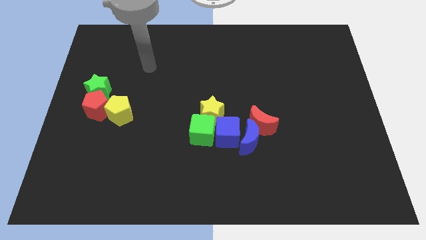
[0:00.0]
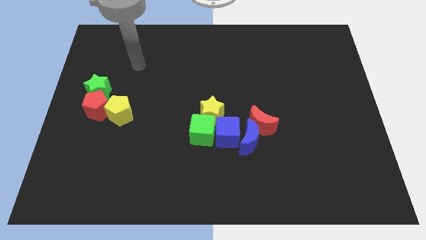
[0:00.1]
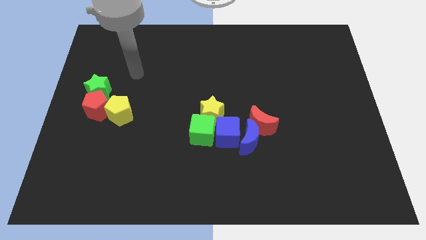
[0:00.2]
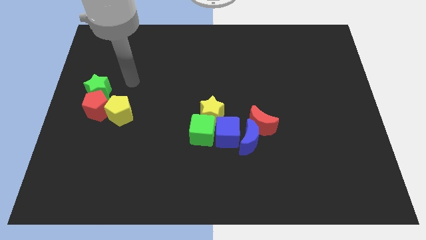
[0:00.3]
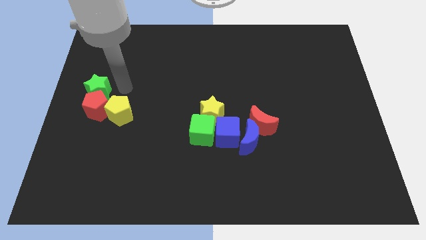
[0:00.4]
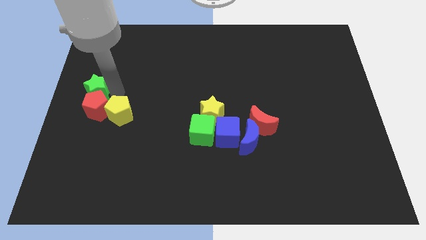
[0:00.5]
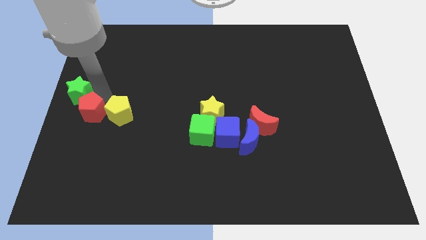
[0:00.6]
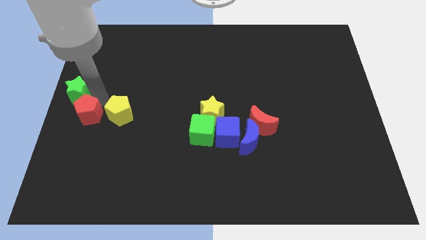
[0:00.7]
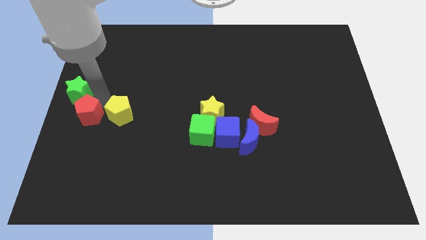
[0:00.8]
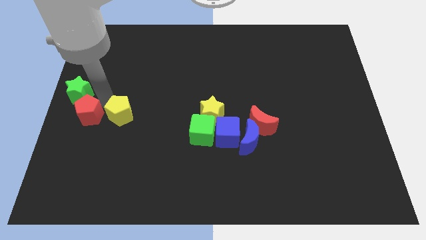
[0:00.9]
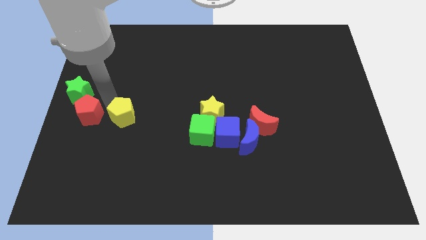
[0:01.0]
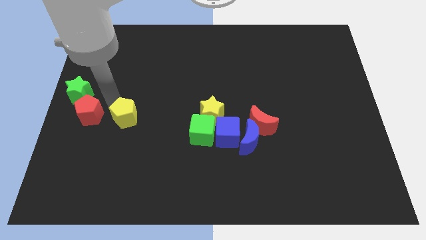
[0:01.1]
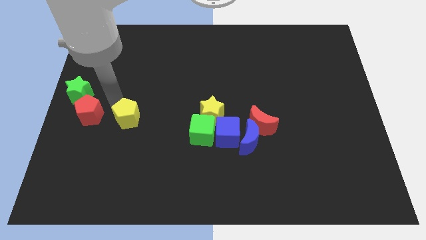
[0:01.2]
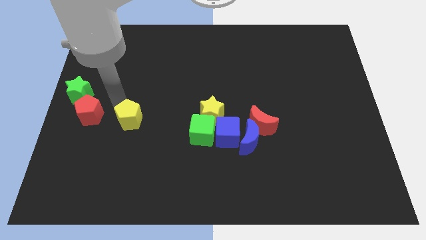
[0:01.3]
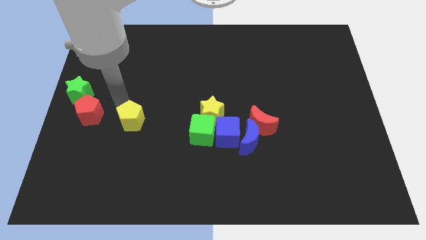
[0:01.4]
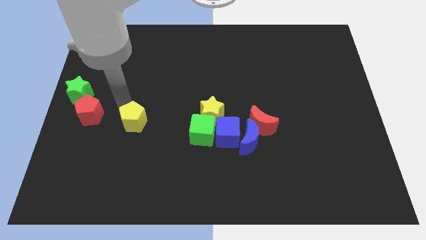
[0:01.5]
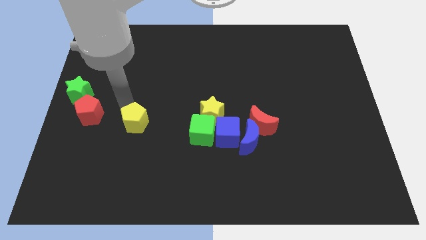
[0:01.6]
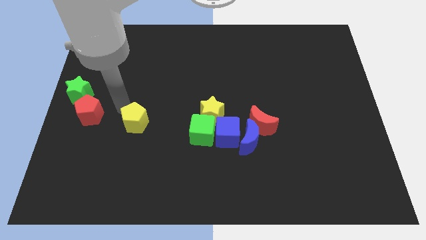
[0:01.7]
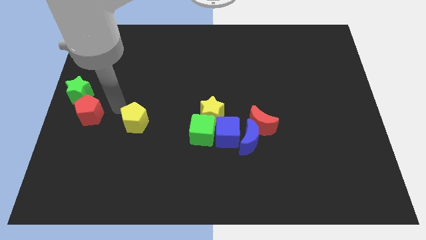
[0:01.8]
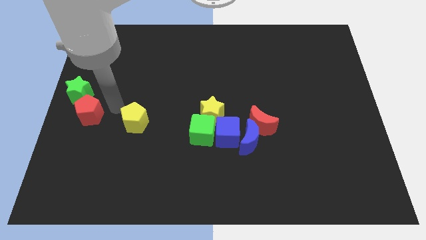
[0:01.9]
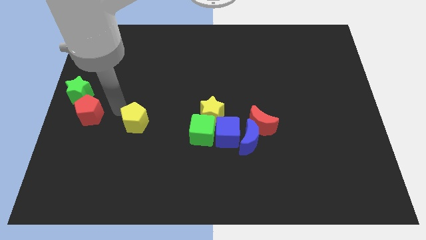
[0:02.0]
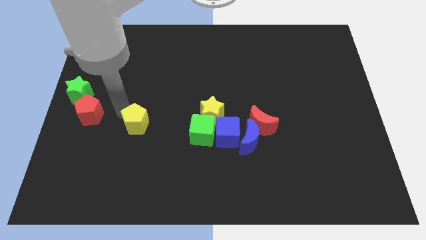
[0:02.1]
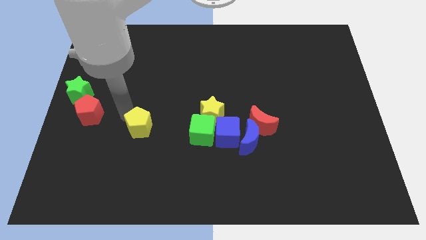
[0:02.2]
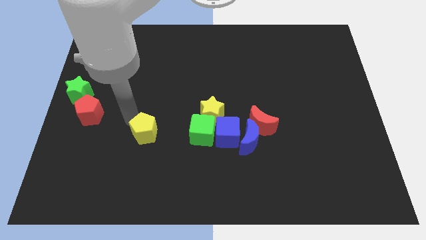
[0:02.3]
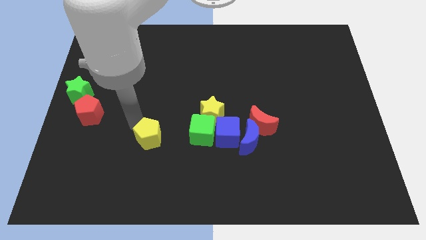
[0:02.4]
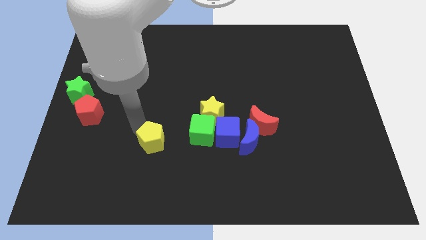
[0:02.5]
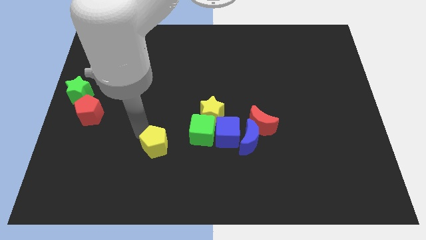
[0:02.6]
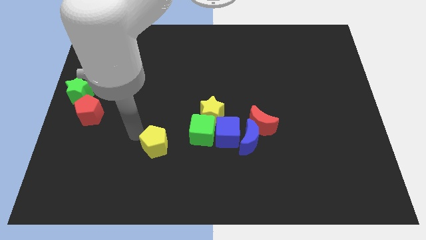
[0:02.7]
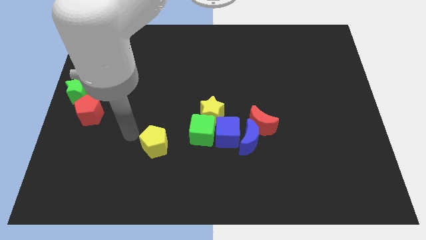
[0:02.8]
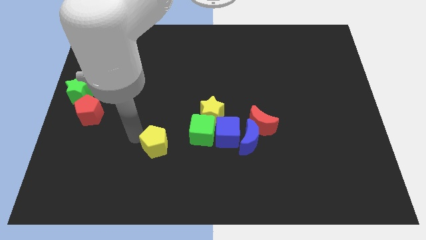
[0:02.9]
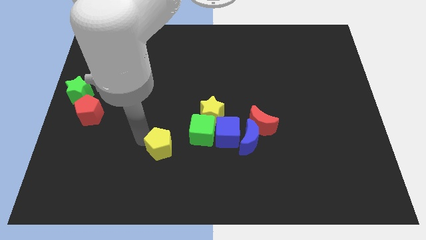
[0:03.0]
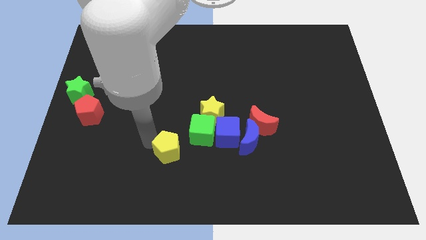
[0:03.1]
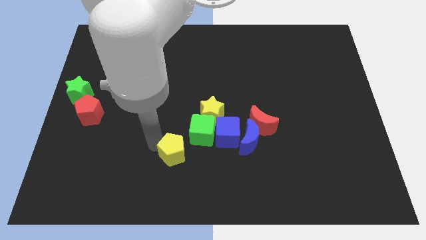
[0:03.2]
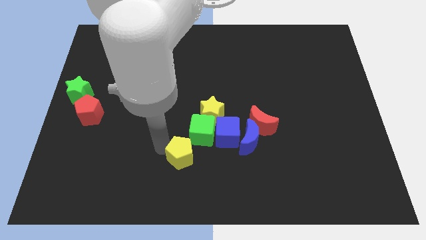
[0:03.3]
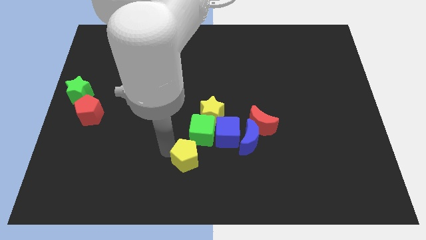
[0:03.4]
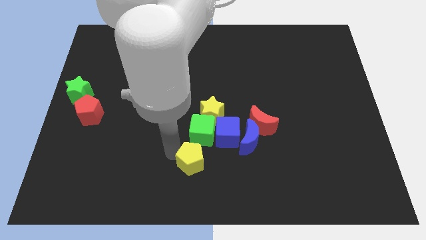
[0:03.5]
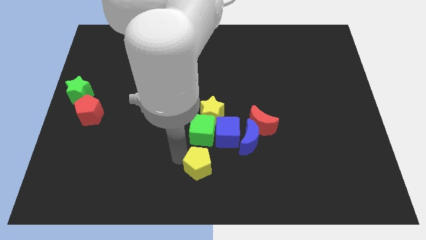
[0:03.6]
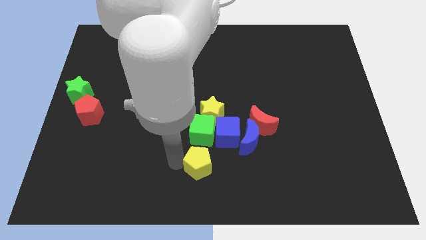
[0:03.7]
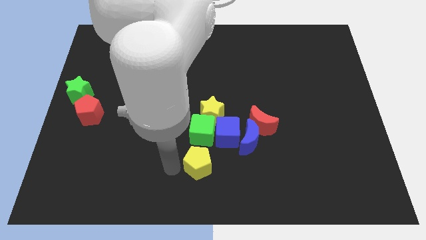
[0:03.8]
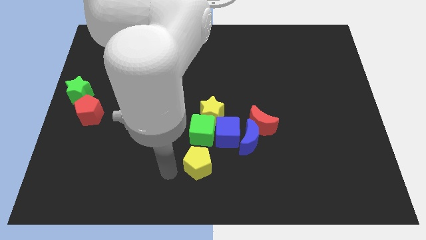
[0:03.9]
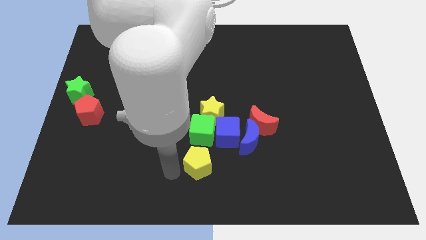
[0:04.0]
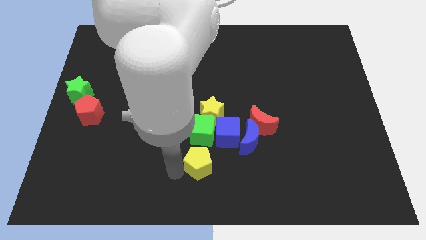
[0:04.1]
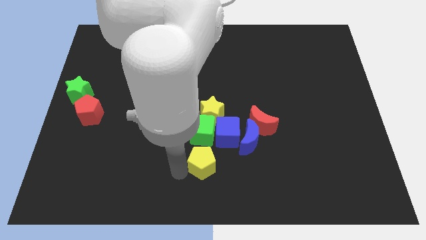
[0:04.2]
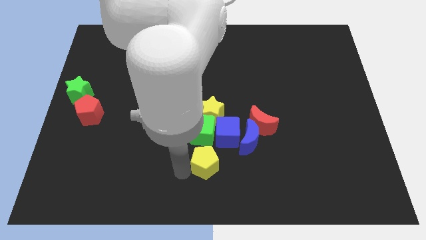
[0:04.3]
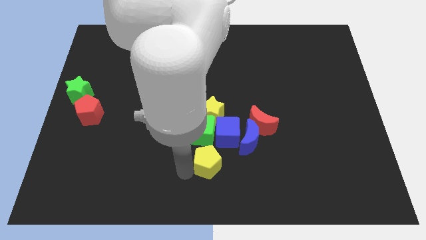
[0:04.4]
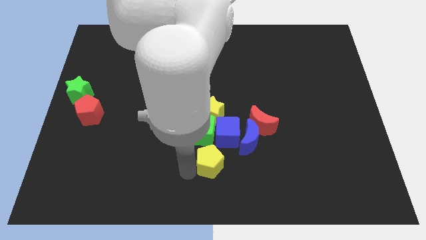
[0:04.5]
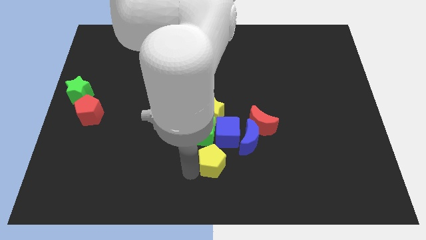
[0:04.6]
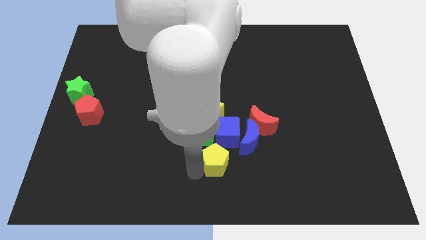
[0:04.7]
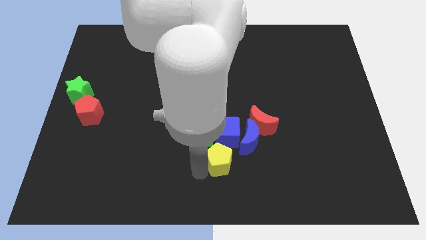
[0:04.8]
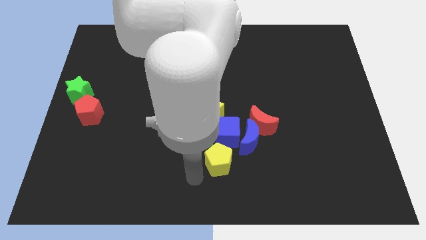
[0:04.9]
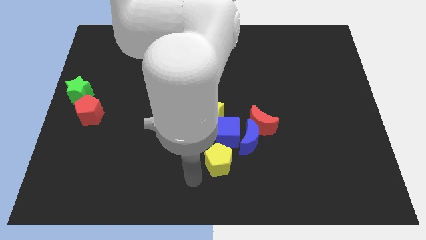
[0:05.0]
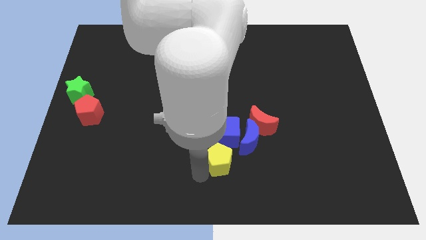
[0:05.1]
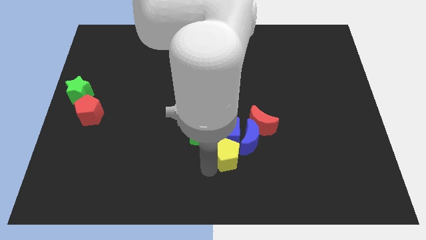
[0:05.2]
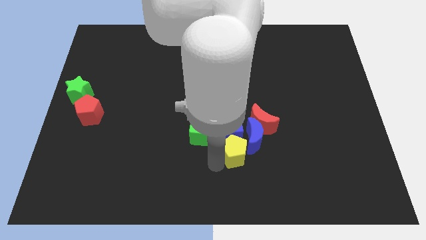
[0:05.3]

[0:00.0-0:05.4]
slide the yellow pentagon close to the blue moon

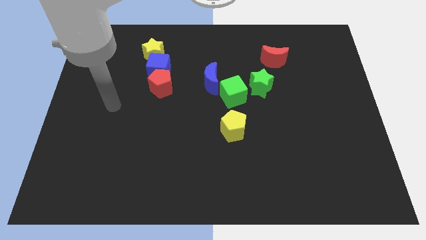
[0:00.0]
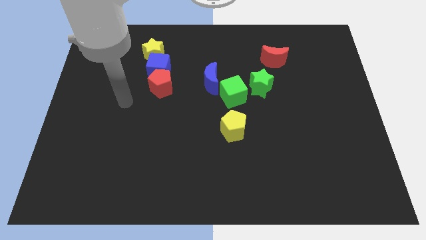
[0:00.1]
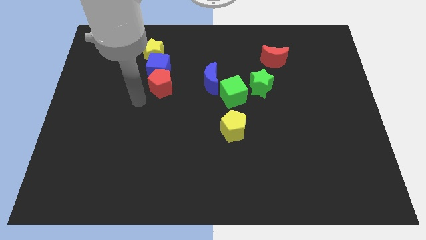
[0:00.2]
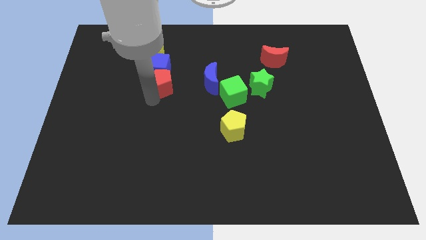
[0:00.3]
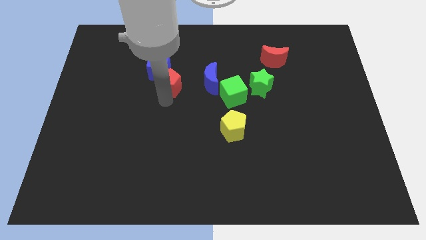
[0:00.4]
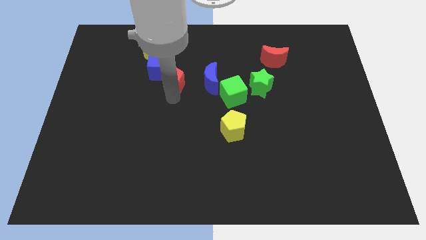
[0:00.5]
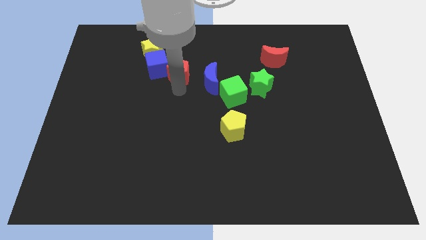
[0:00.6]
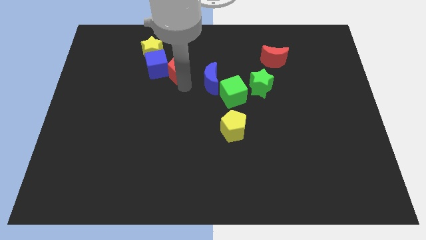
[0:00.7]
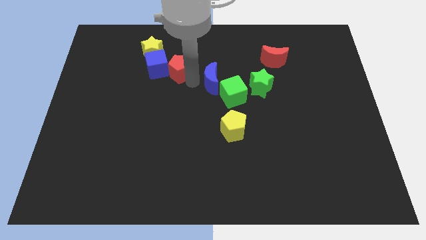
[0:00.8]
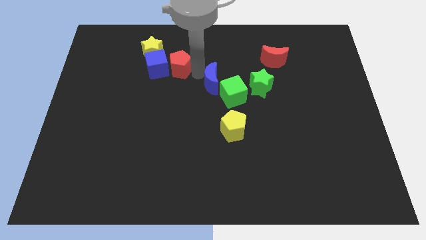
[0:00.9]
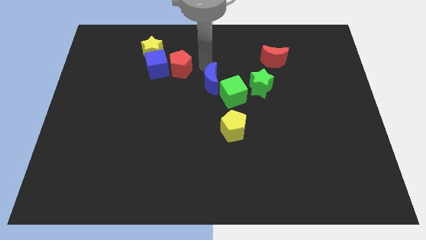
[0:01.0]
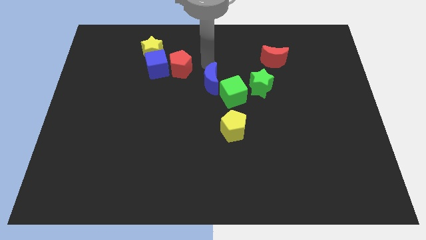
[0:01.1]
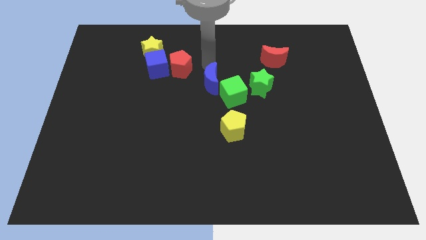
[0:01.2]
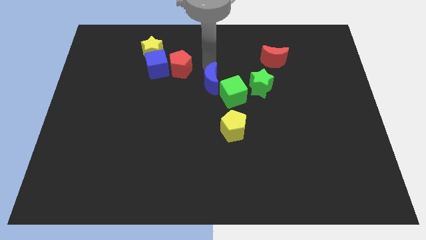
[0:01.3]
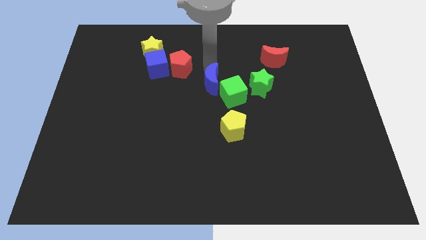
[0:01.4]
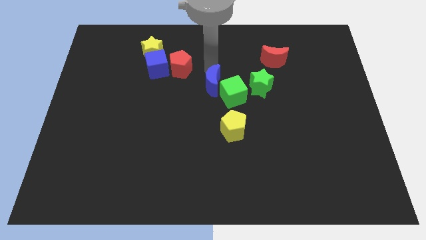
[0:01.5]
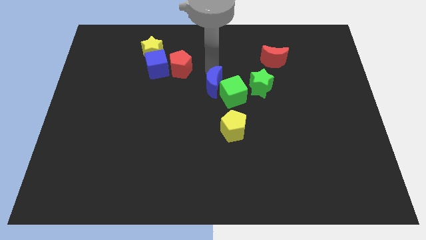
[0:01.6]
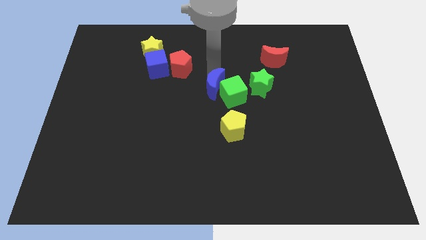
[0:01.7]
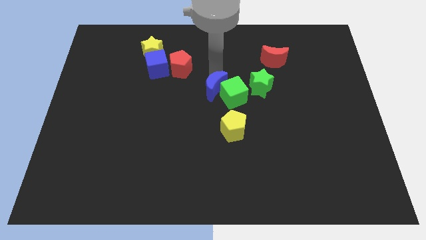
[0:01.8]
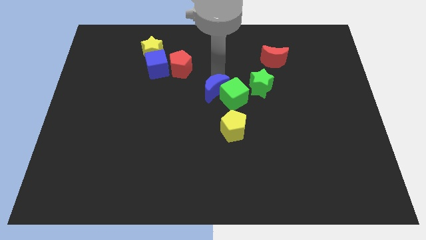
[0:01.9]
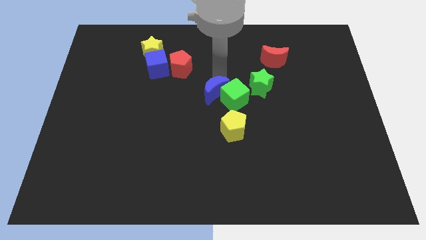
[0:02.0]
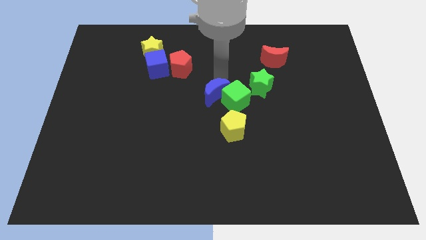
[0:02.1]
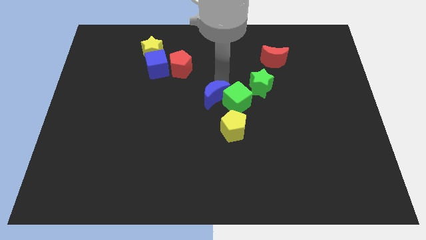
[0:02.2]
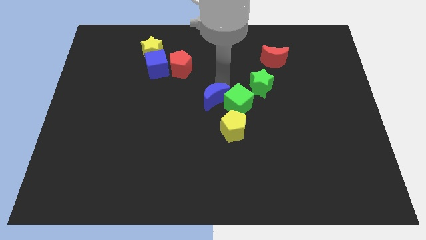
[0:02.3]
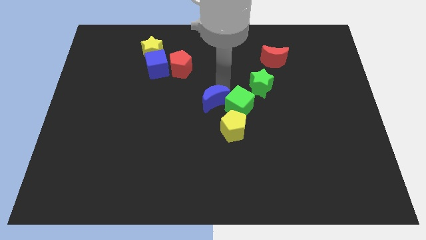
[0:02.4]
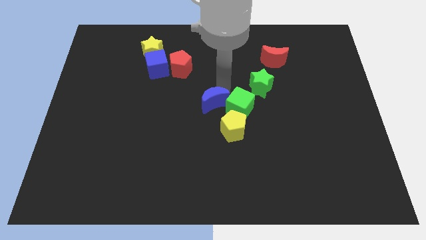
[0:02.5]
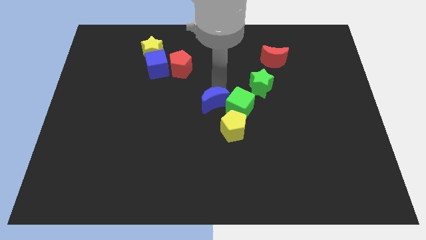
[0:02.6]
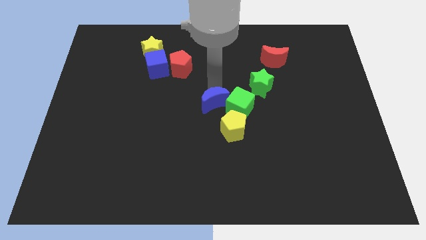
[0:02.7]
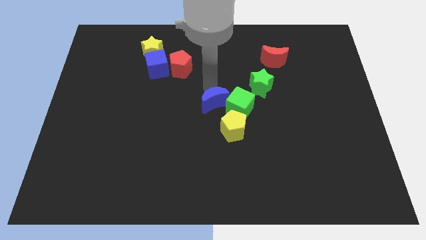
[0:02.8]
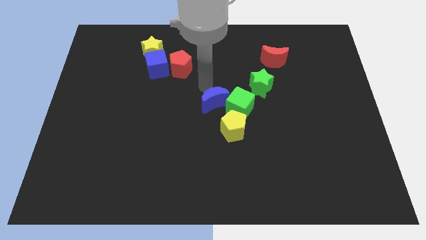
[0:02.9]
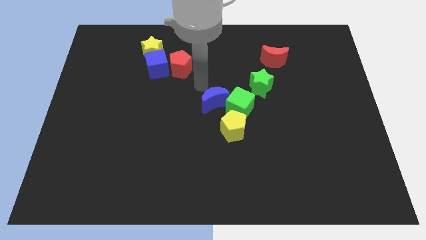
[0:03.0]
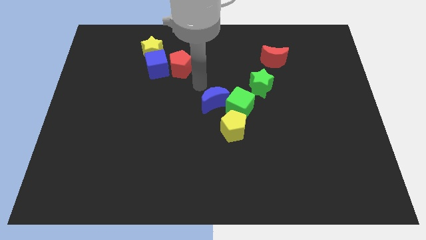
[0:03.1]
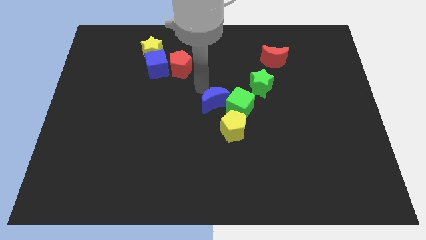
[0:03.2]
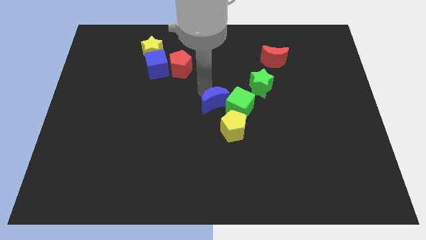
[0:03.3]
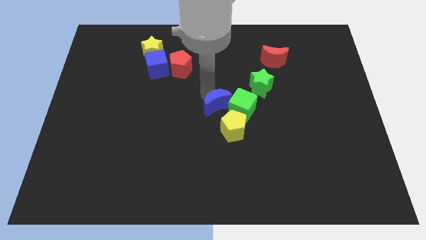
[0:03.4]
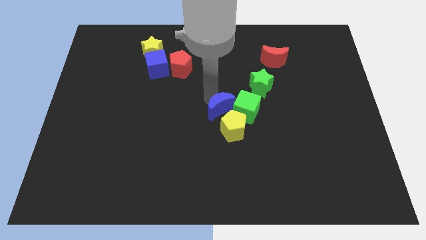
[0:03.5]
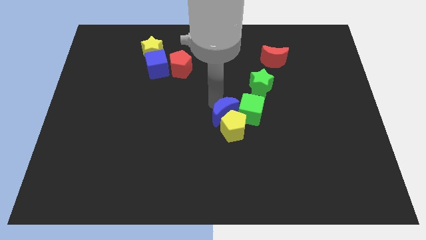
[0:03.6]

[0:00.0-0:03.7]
put the blue moon to the yellow pentagon
